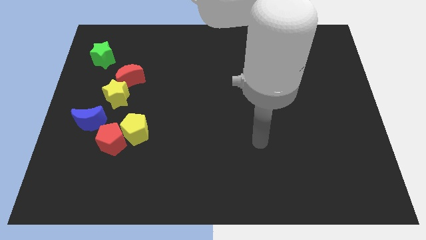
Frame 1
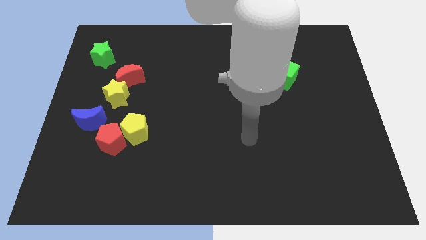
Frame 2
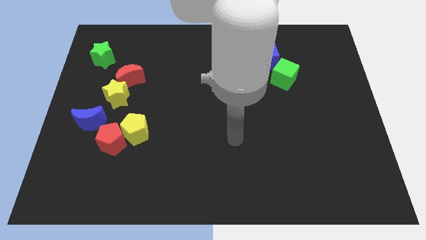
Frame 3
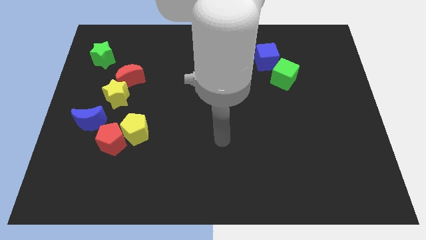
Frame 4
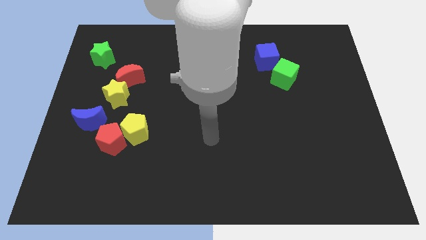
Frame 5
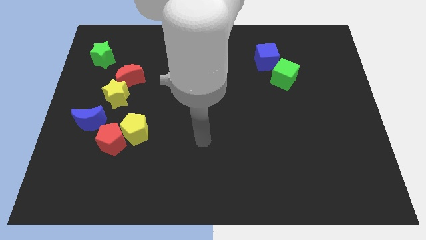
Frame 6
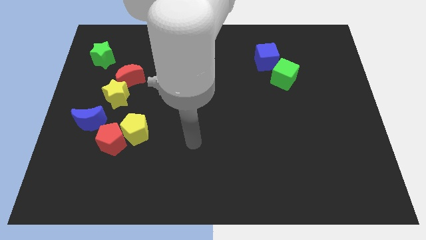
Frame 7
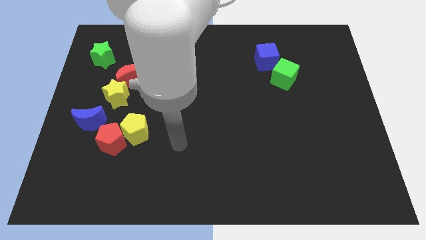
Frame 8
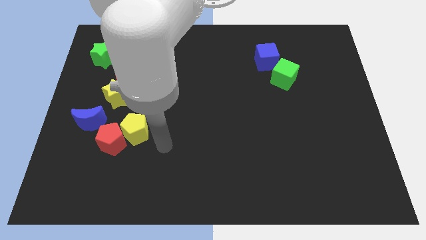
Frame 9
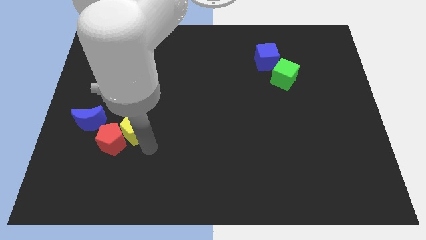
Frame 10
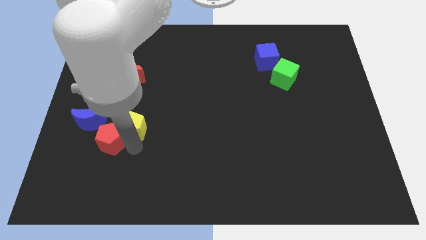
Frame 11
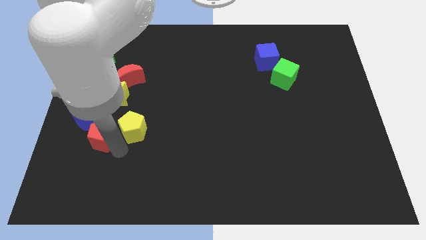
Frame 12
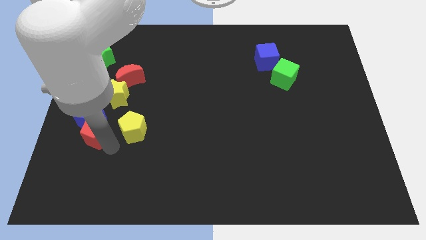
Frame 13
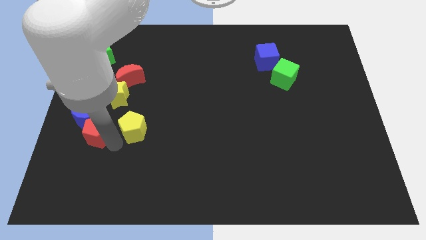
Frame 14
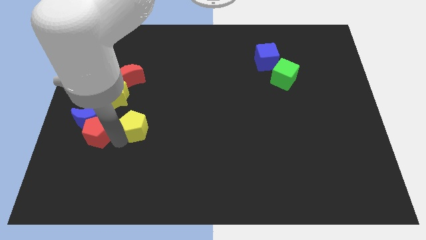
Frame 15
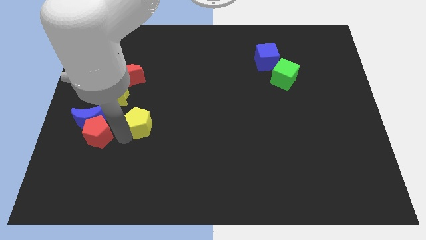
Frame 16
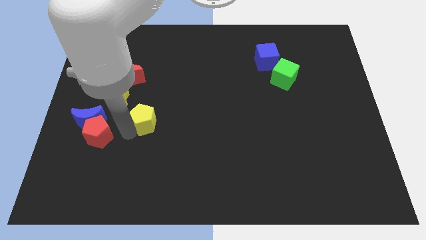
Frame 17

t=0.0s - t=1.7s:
pull the yellow pentagon apart from the red pentagon

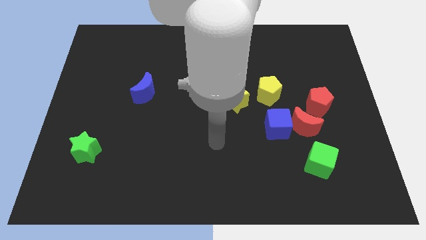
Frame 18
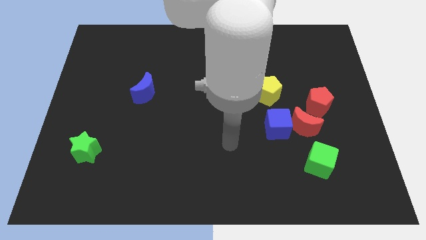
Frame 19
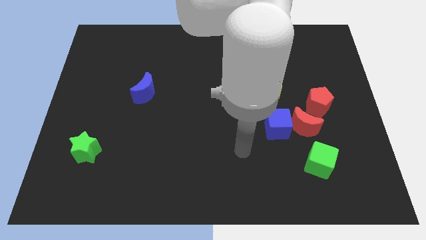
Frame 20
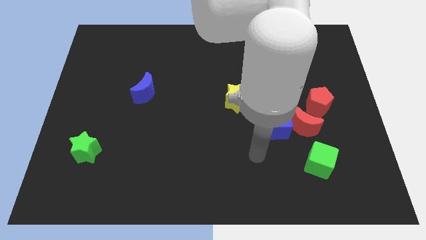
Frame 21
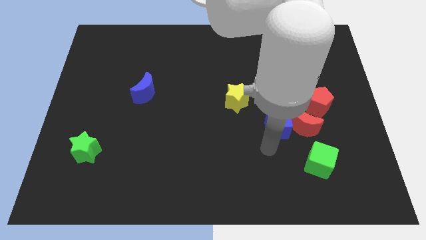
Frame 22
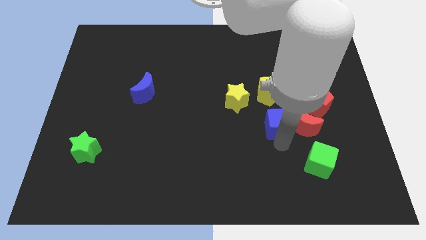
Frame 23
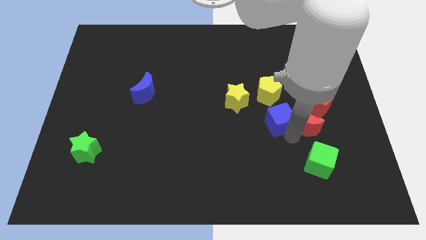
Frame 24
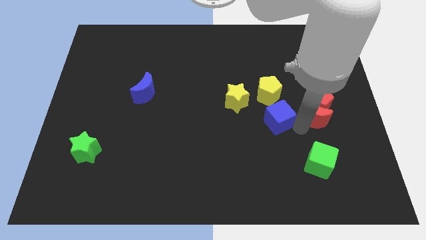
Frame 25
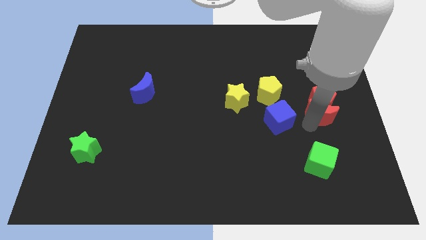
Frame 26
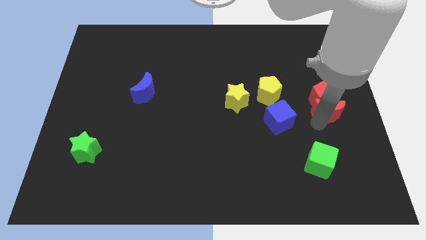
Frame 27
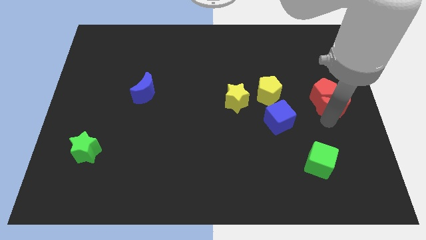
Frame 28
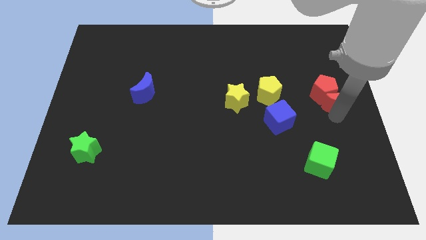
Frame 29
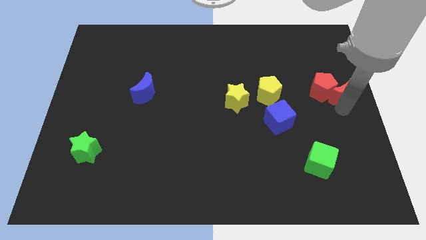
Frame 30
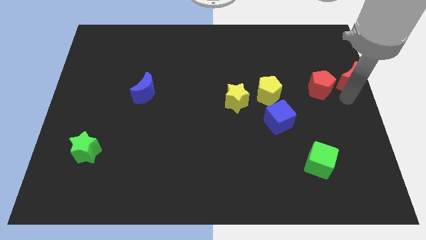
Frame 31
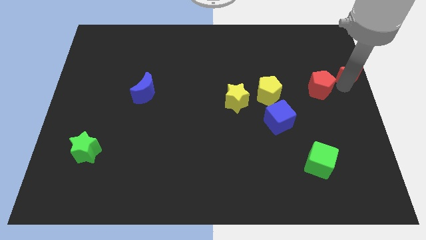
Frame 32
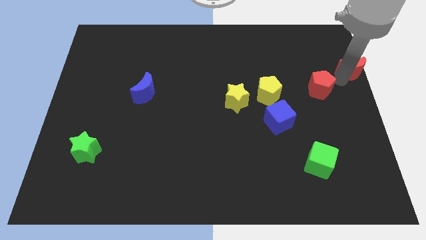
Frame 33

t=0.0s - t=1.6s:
separate the red pentagon from the red moon

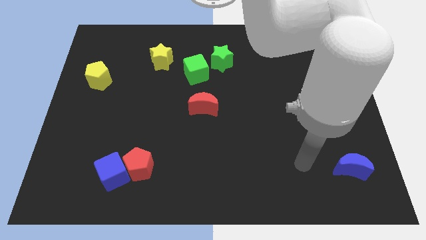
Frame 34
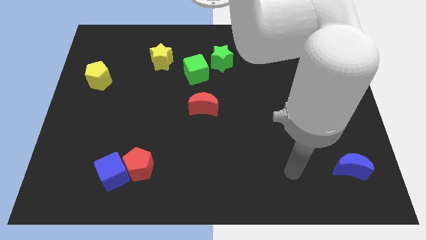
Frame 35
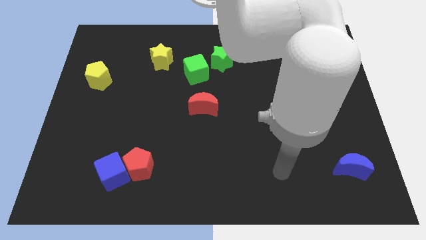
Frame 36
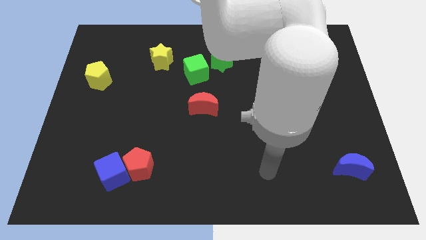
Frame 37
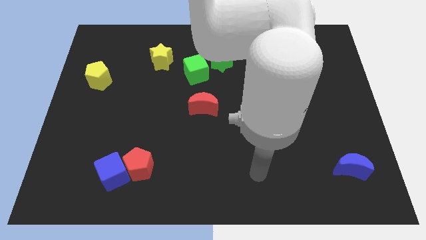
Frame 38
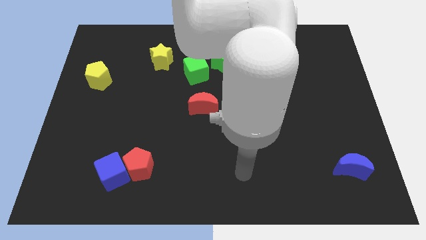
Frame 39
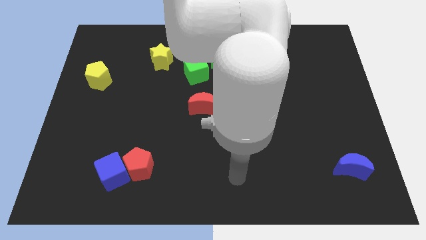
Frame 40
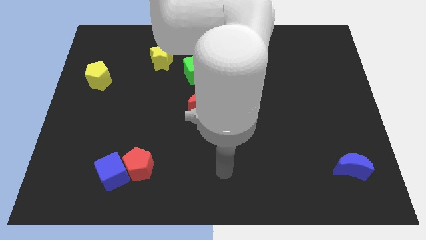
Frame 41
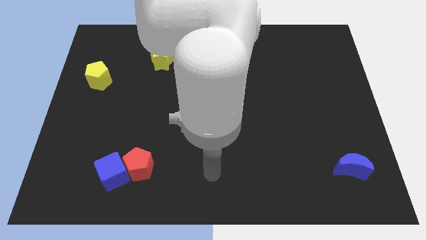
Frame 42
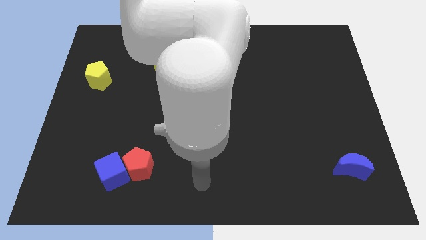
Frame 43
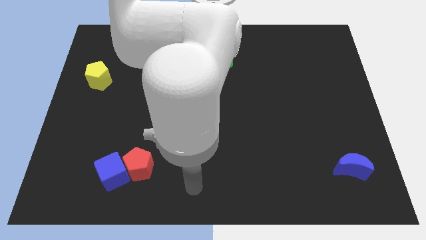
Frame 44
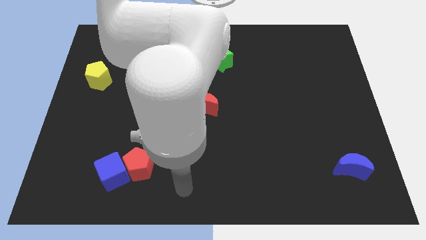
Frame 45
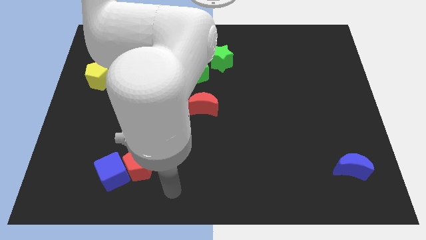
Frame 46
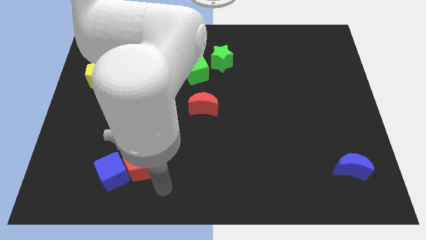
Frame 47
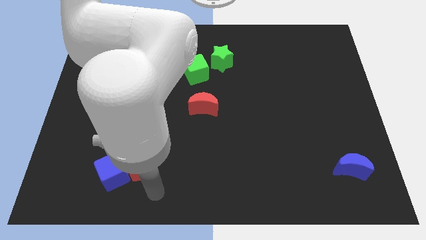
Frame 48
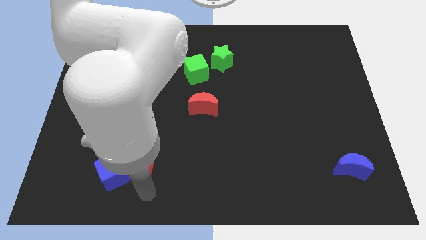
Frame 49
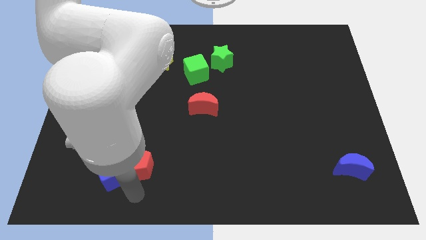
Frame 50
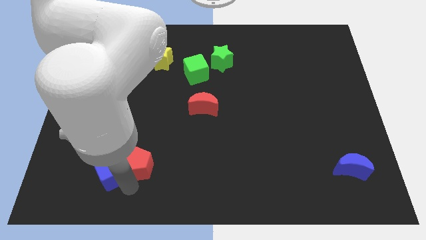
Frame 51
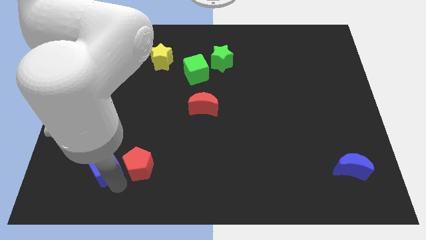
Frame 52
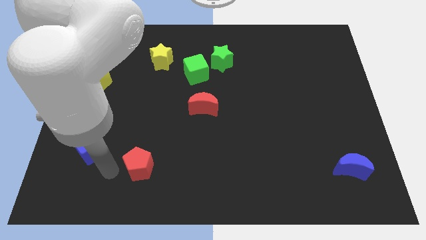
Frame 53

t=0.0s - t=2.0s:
separate the red pentagon from the blue cube

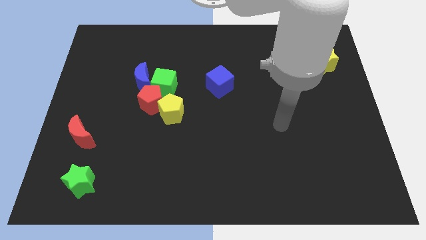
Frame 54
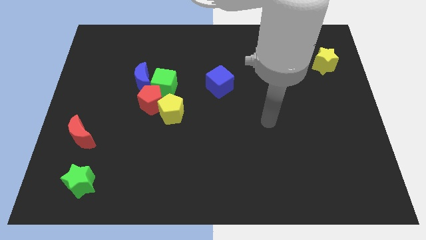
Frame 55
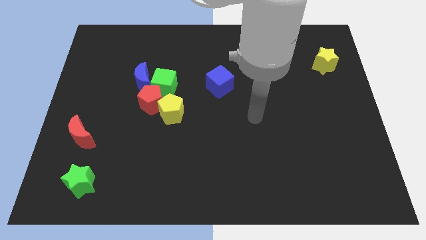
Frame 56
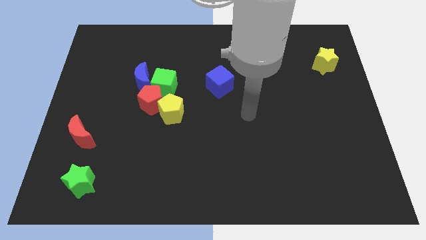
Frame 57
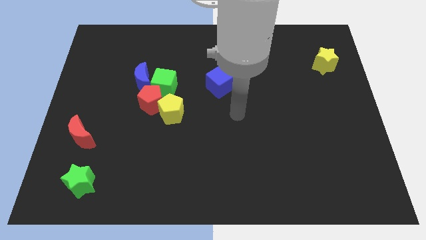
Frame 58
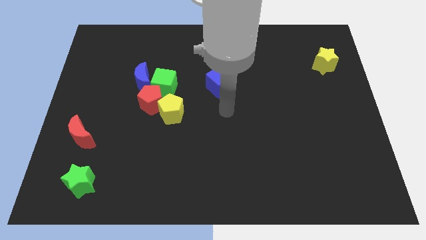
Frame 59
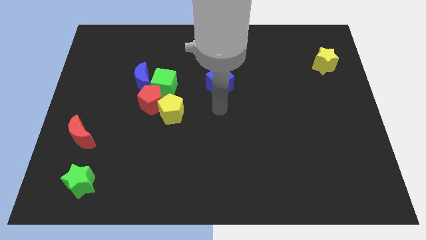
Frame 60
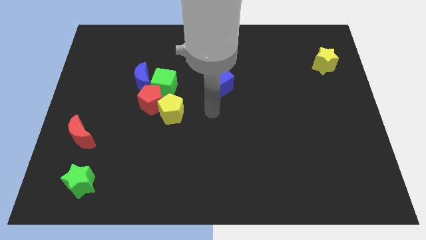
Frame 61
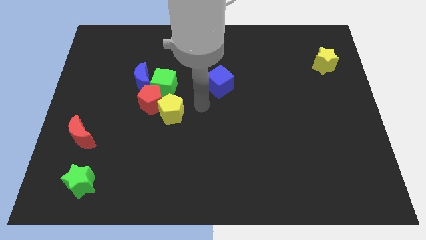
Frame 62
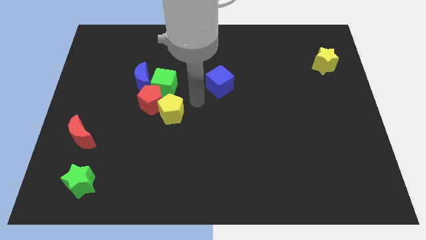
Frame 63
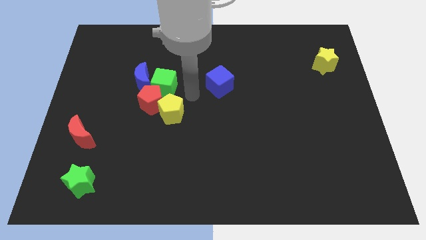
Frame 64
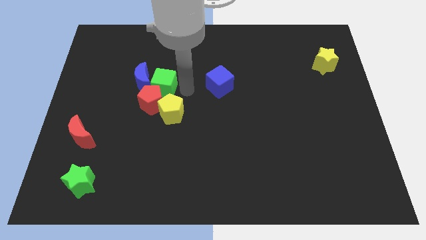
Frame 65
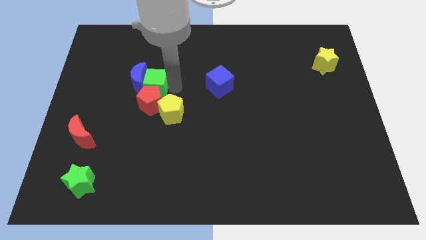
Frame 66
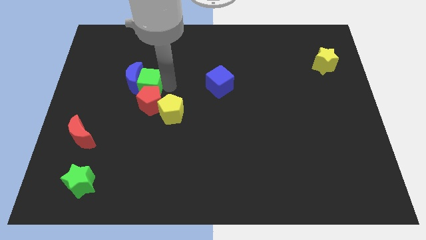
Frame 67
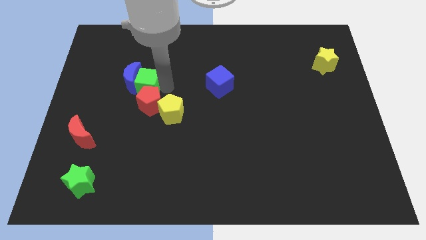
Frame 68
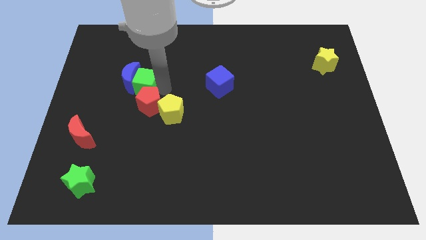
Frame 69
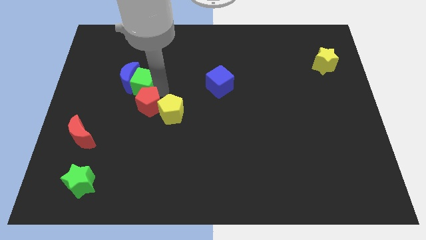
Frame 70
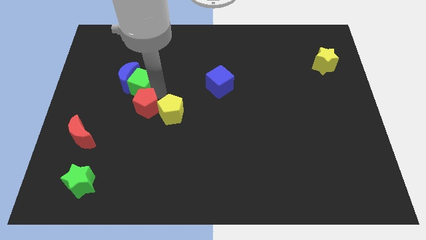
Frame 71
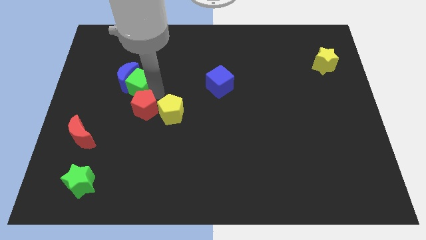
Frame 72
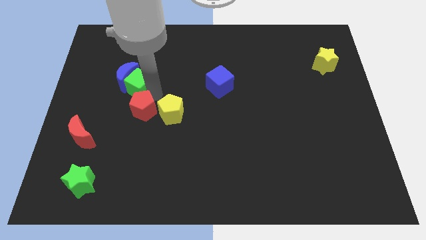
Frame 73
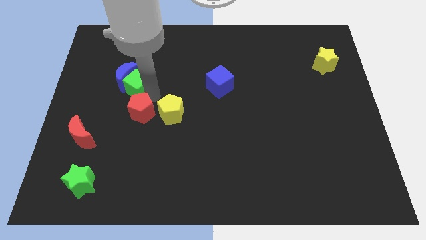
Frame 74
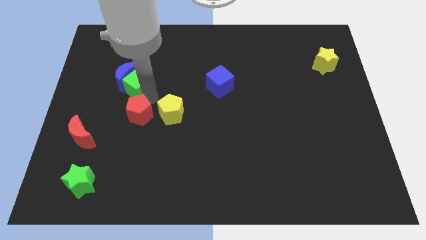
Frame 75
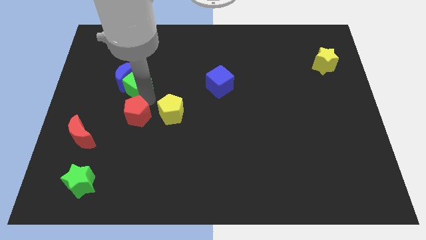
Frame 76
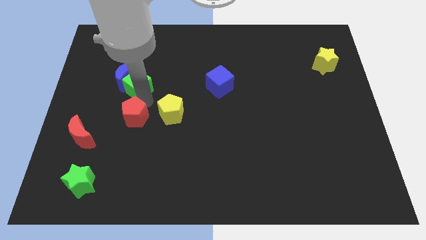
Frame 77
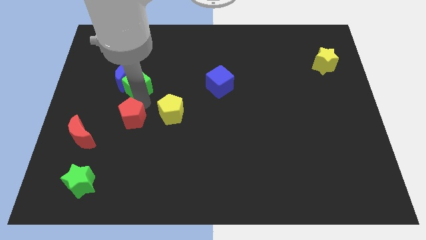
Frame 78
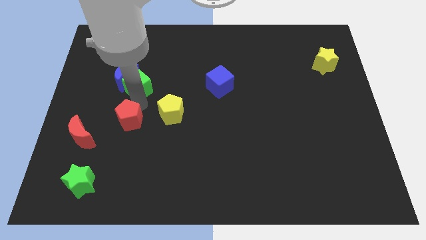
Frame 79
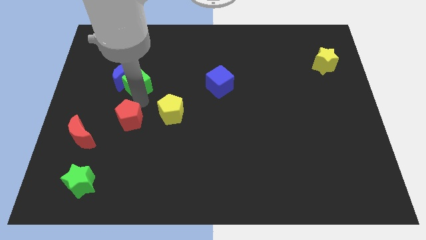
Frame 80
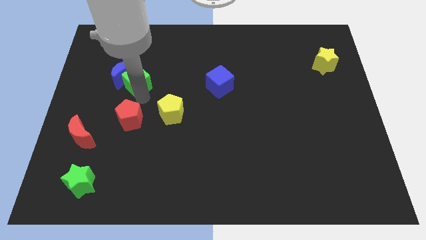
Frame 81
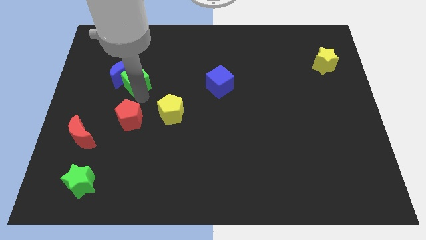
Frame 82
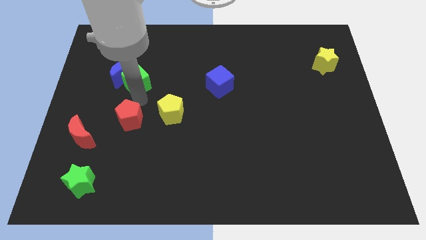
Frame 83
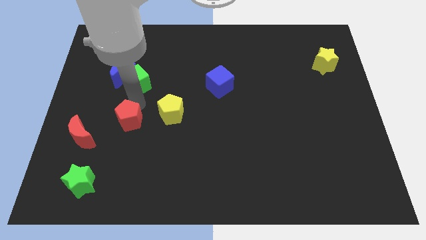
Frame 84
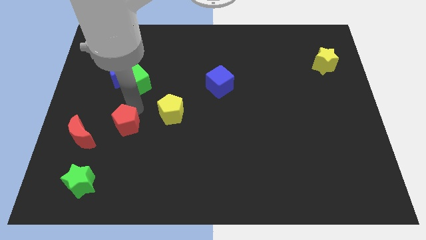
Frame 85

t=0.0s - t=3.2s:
pull the red pentagon apart from the yellow pentagon, green cube, and blue moon

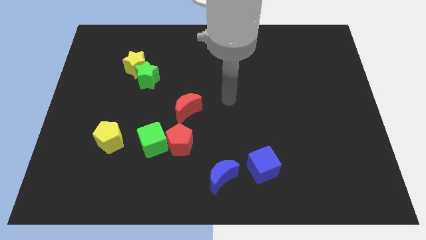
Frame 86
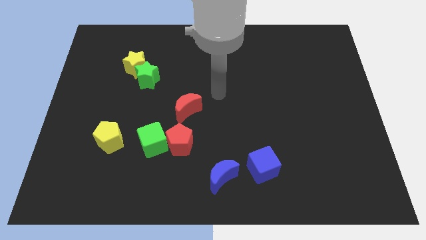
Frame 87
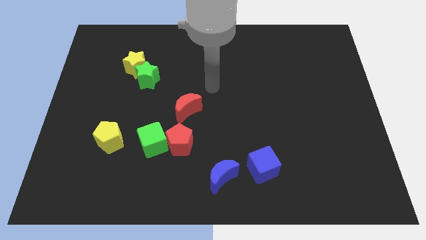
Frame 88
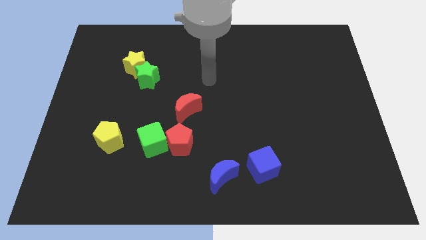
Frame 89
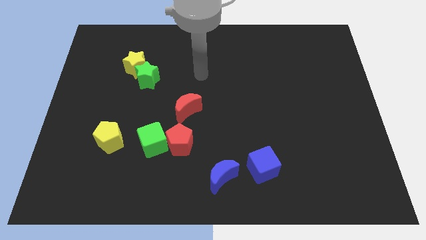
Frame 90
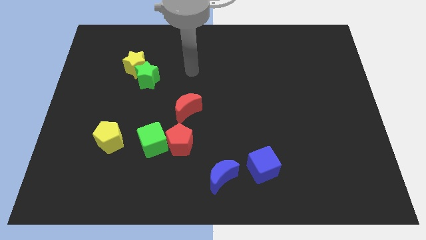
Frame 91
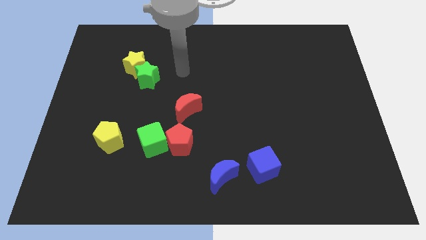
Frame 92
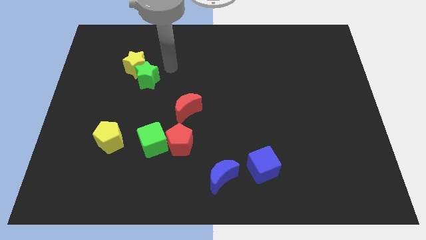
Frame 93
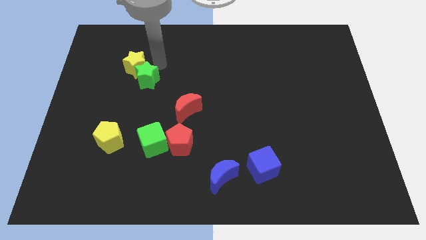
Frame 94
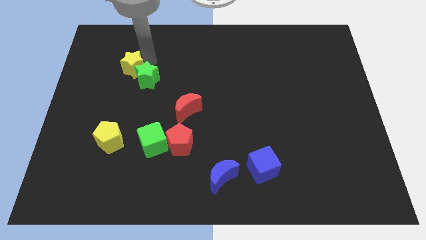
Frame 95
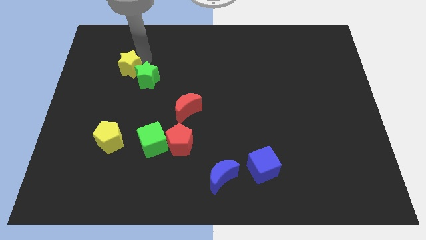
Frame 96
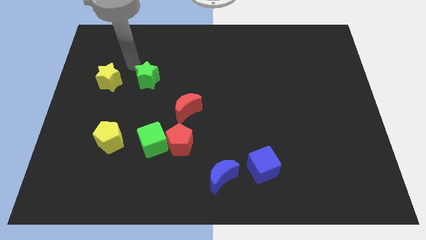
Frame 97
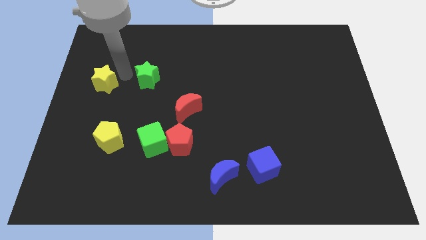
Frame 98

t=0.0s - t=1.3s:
pull the green star apart from the yellow star
